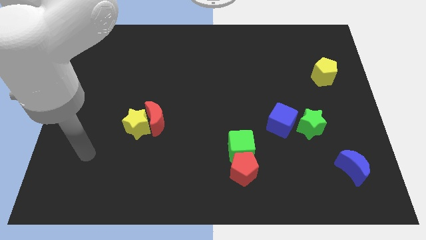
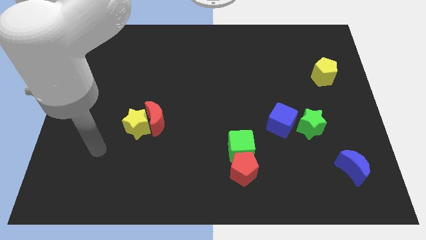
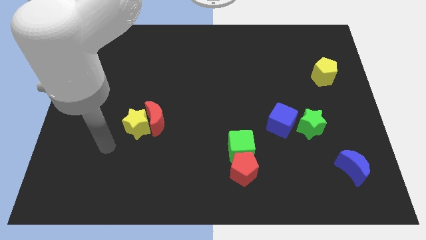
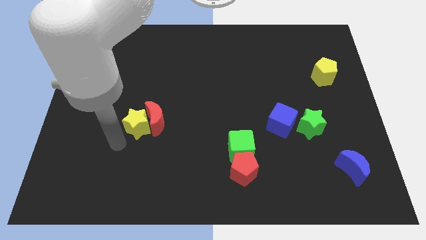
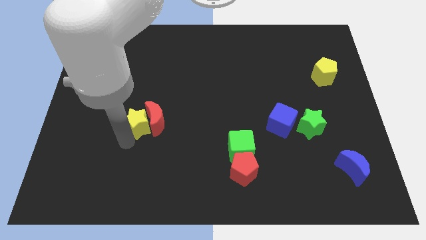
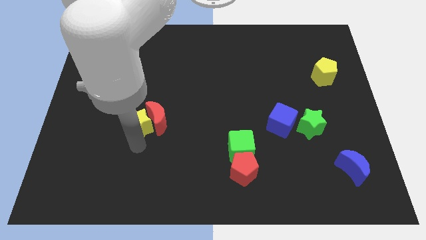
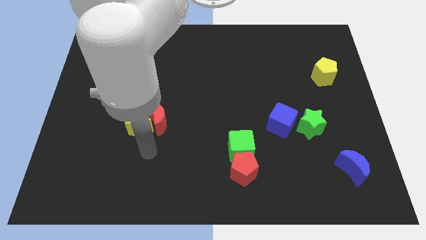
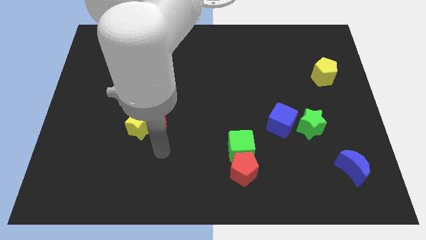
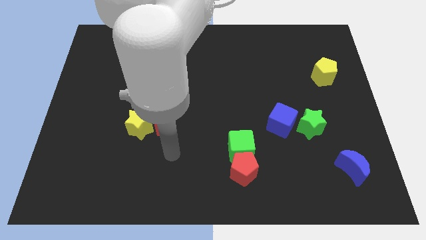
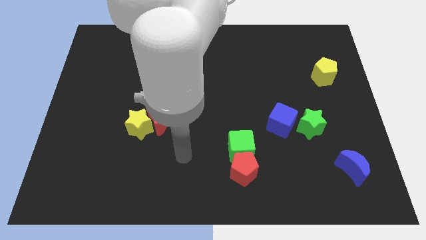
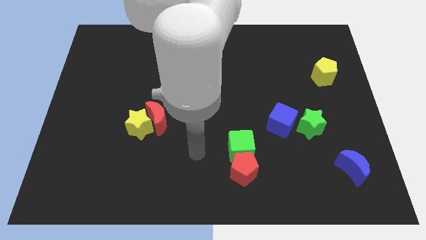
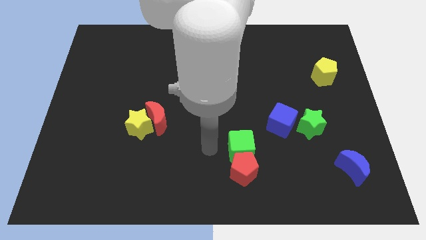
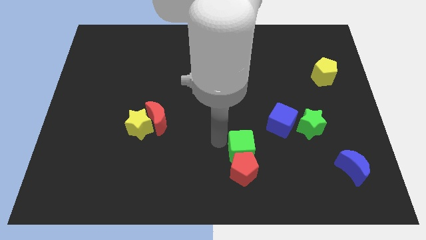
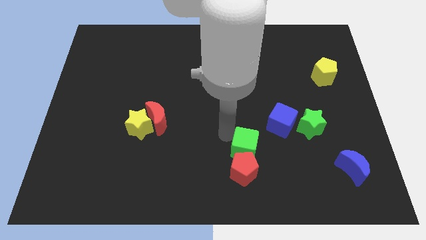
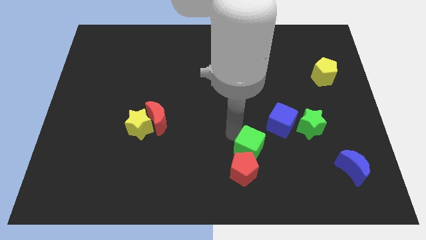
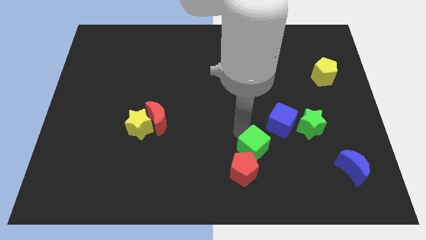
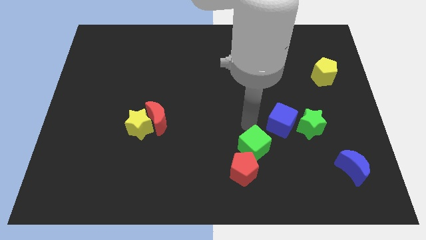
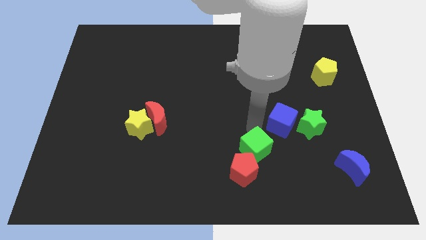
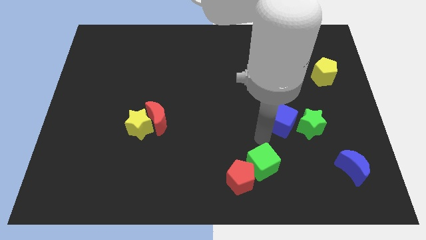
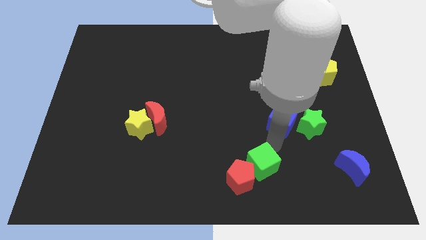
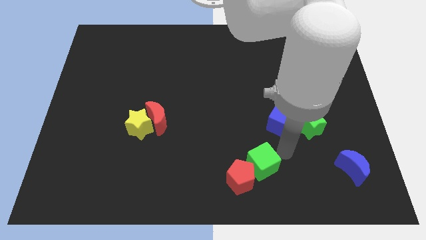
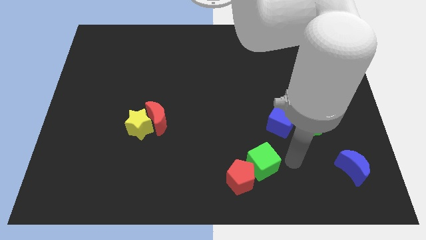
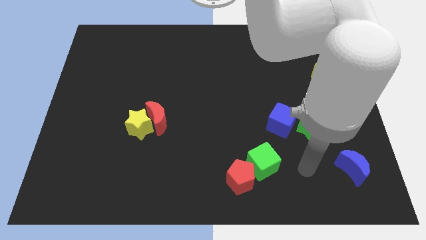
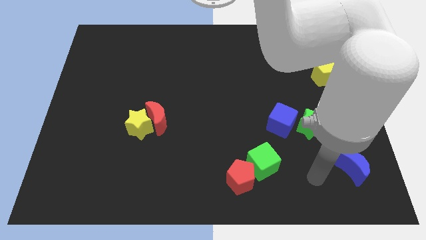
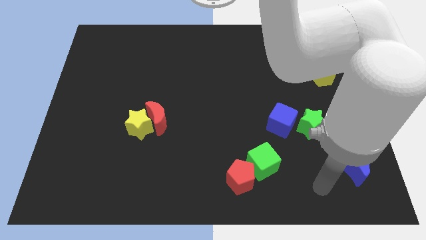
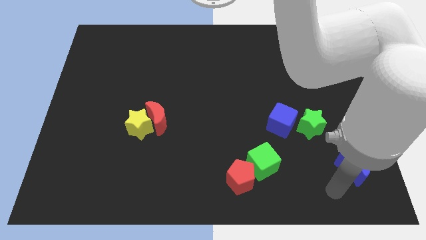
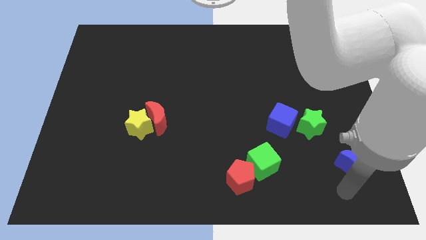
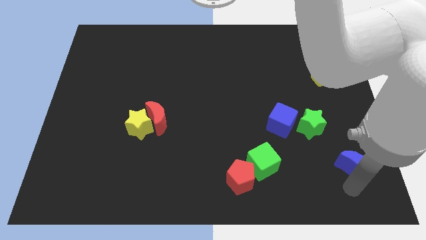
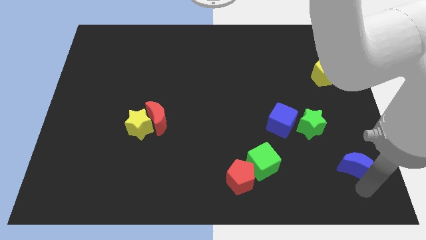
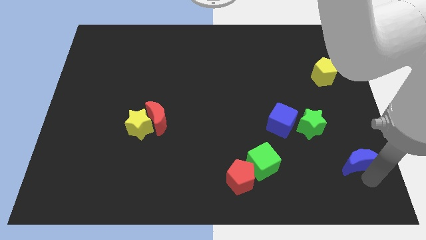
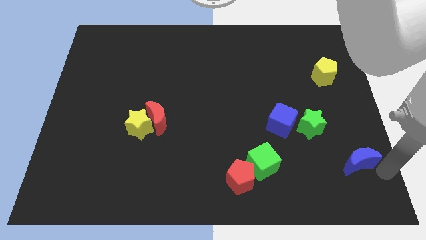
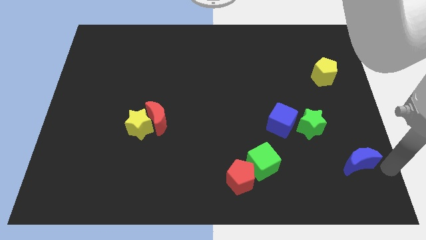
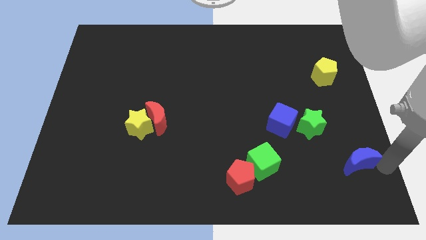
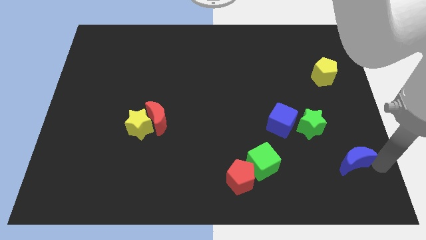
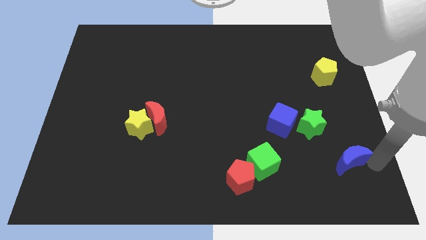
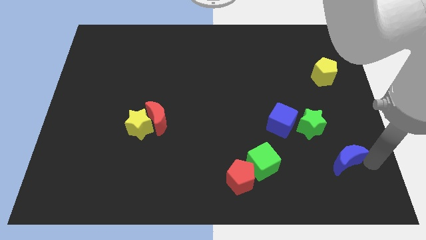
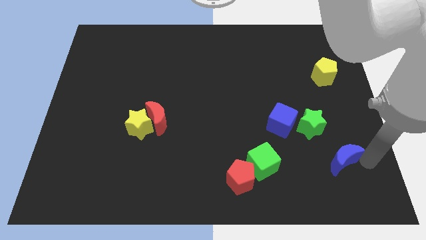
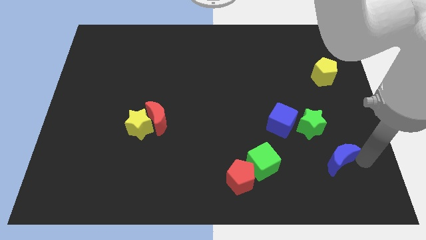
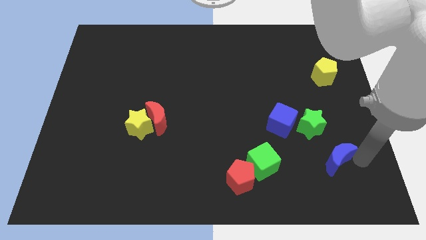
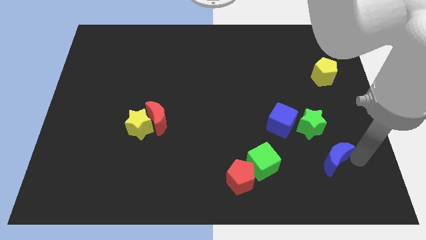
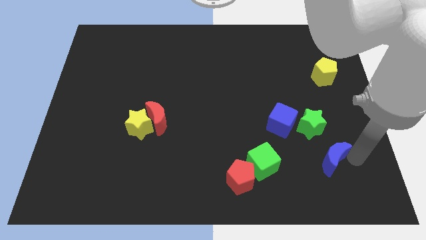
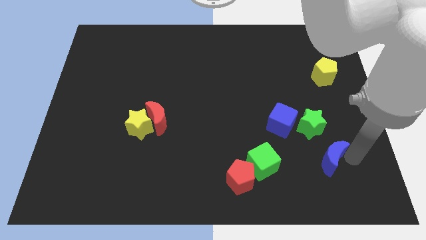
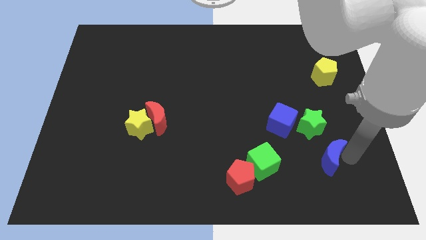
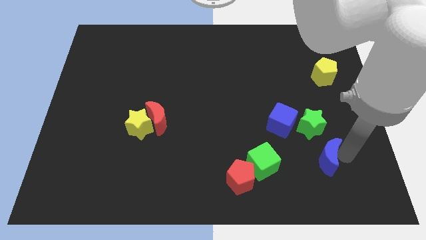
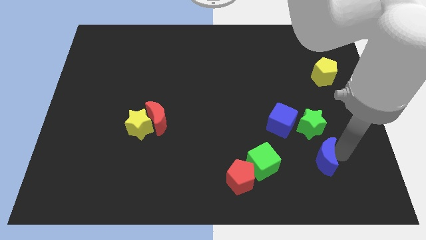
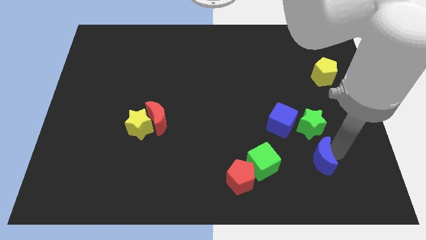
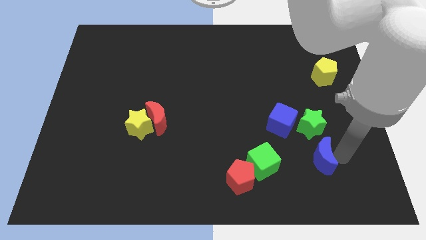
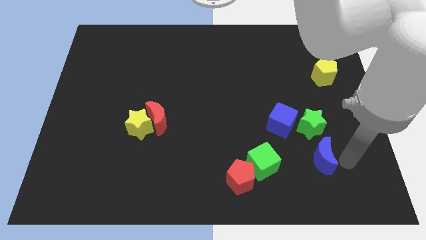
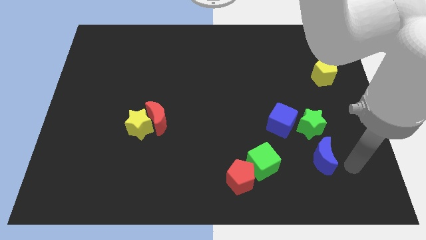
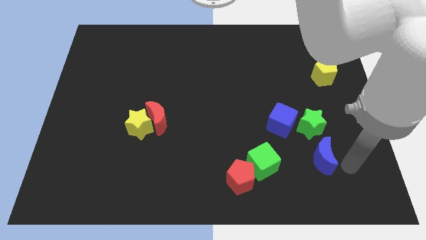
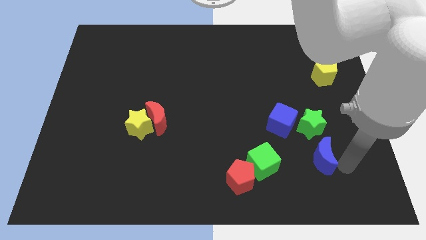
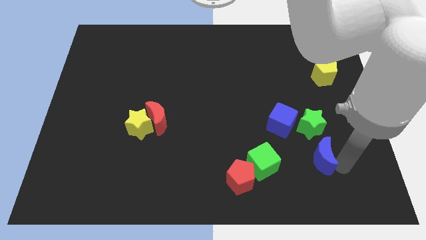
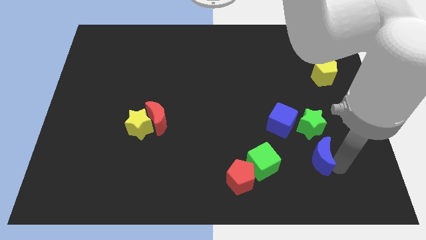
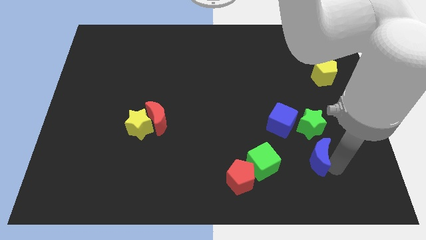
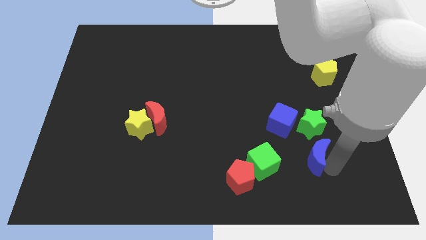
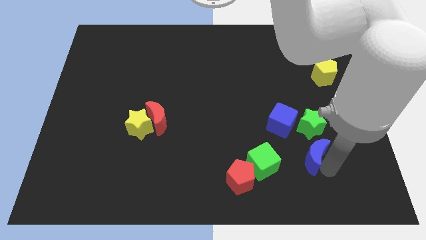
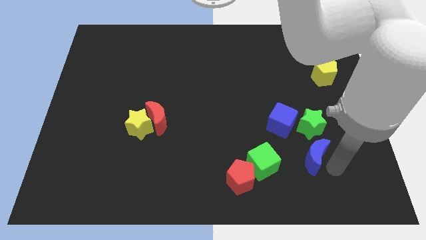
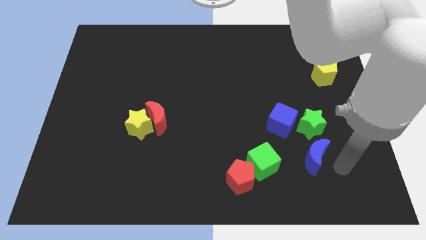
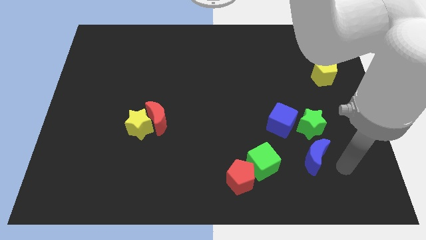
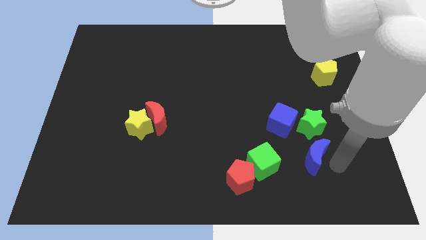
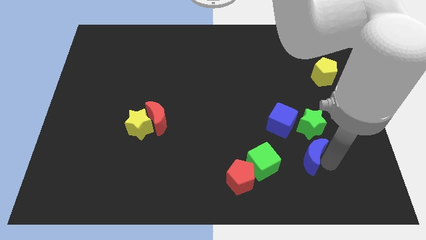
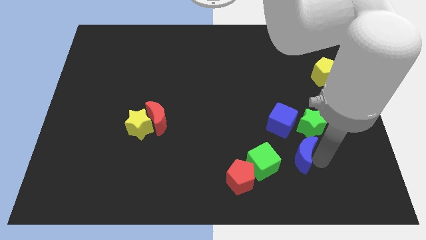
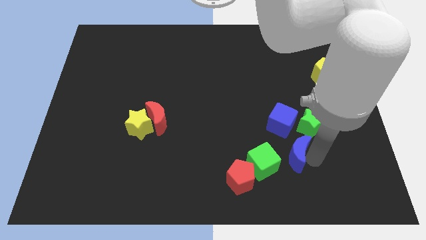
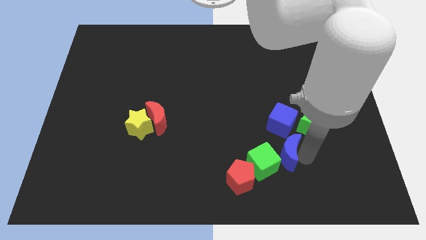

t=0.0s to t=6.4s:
move the blue moon close to the green cube

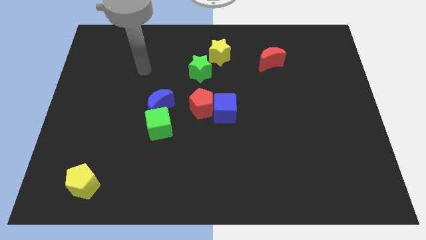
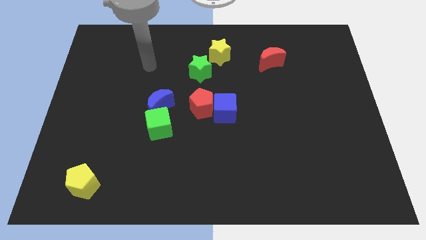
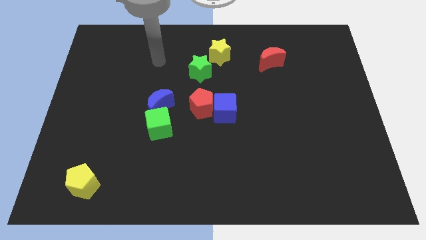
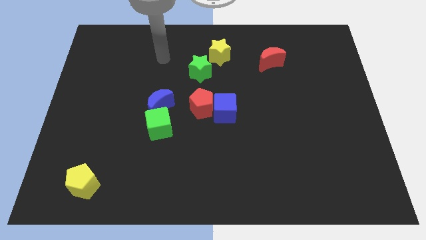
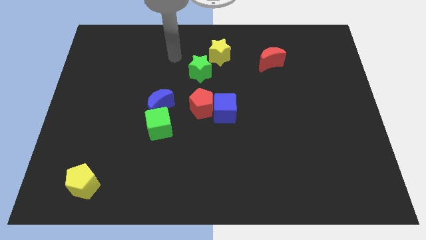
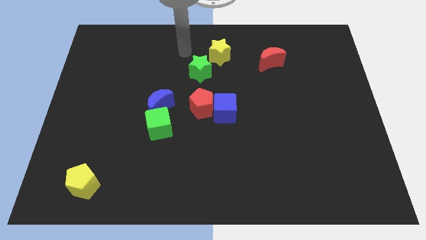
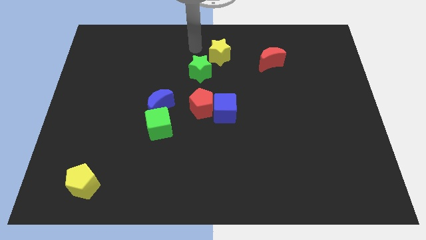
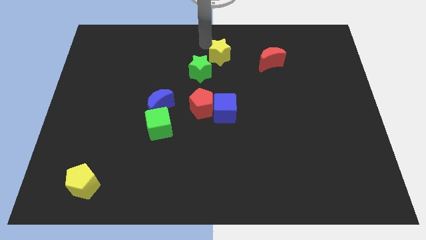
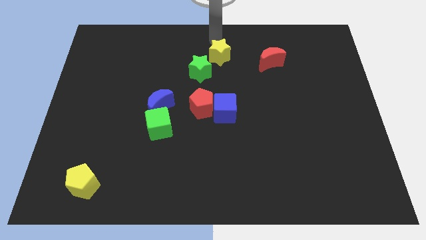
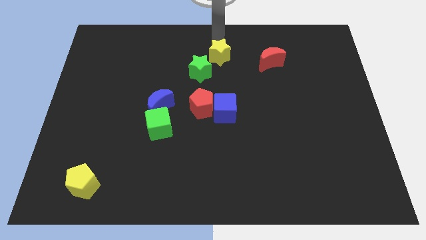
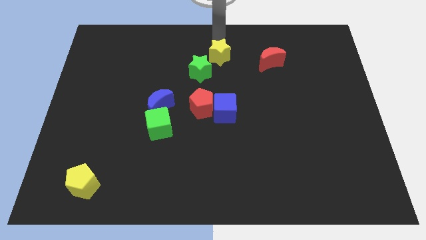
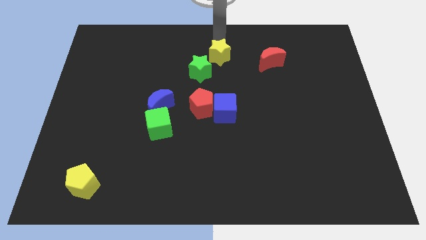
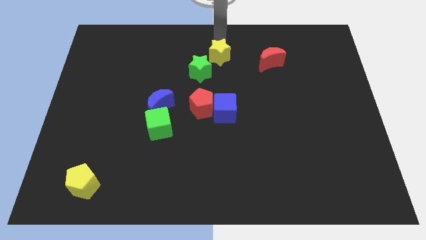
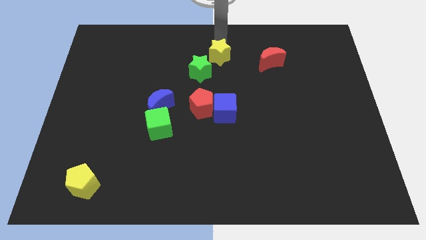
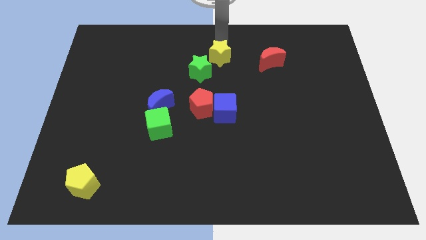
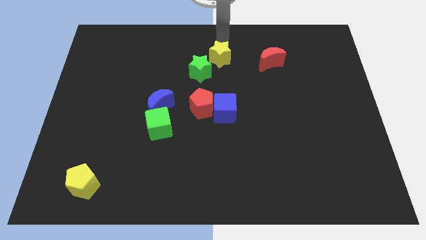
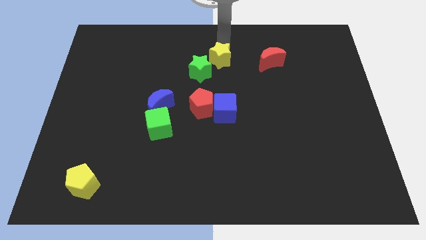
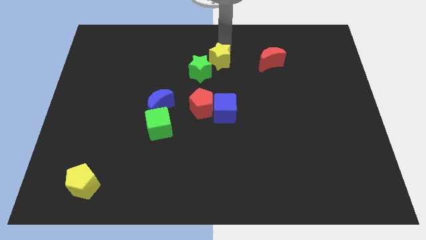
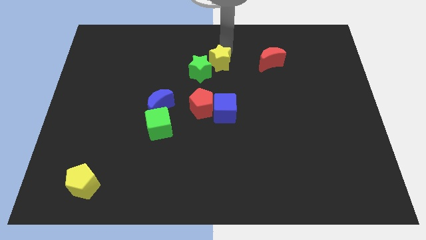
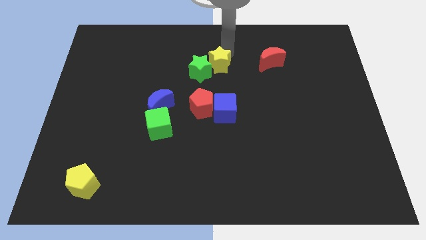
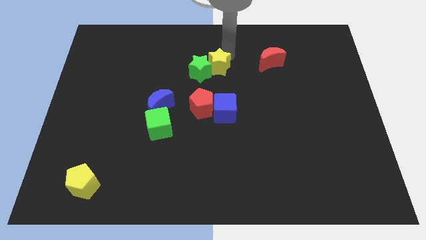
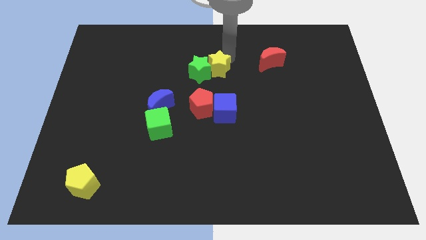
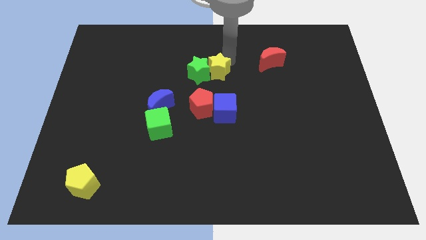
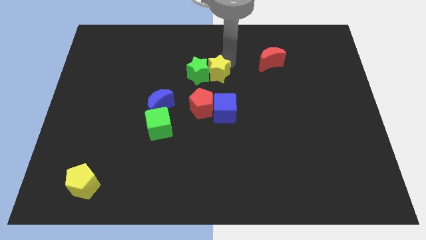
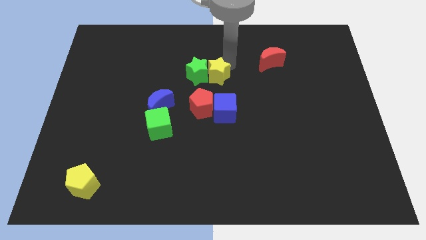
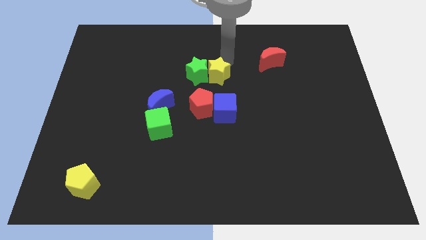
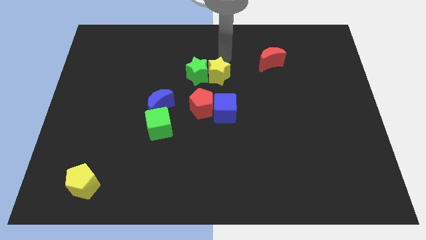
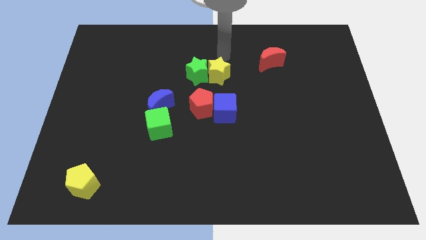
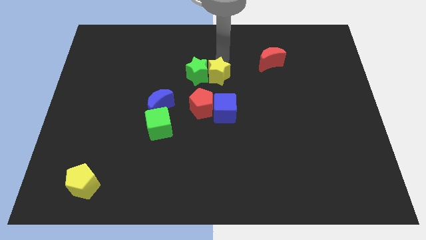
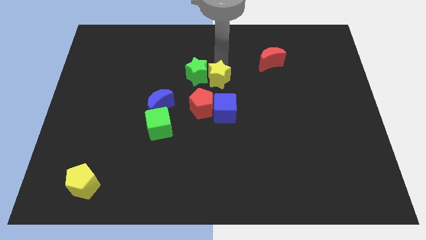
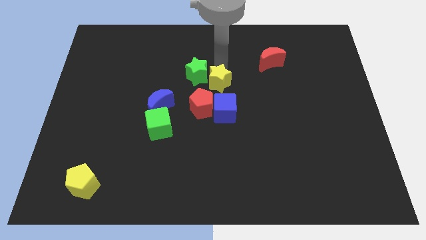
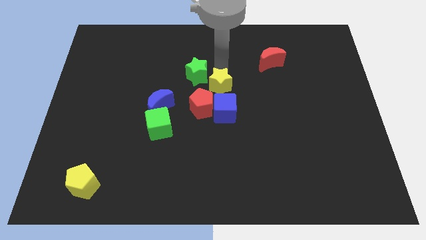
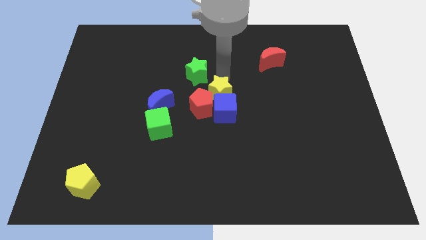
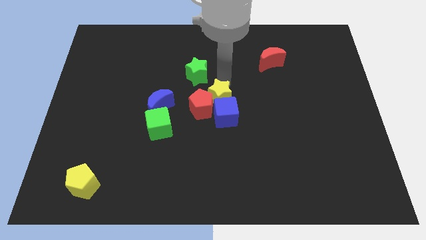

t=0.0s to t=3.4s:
put the yellow star close to the red pentagon
